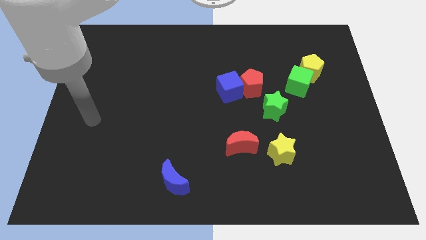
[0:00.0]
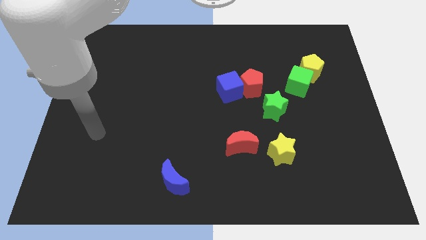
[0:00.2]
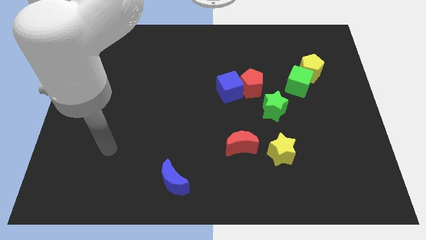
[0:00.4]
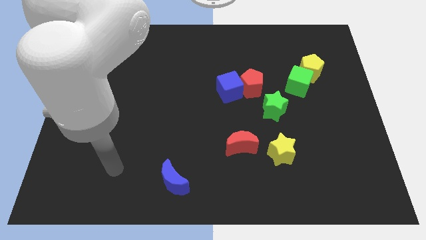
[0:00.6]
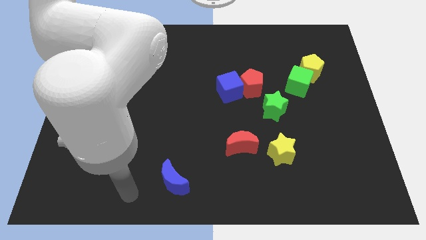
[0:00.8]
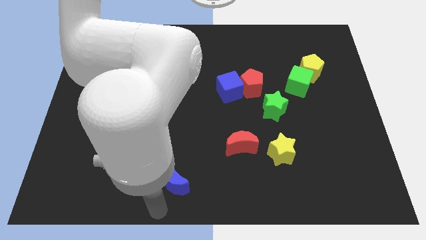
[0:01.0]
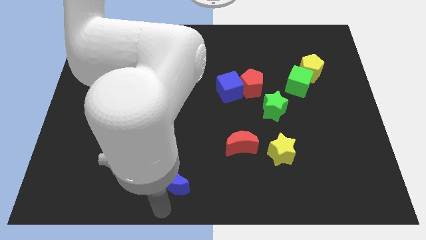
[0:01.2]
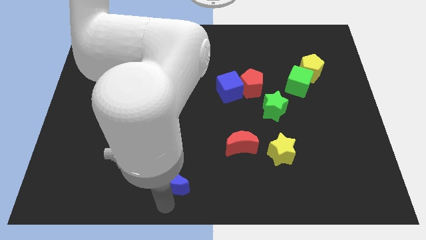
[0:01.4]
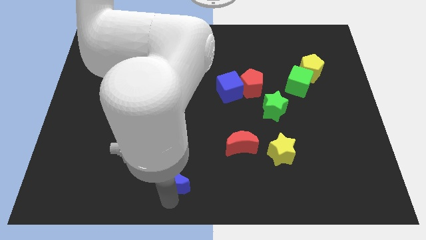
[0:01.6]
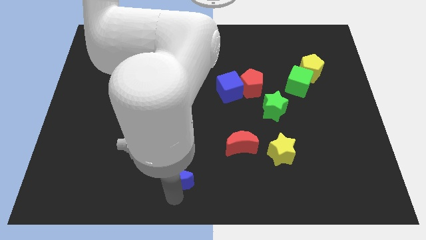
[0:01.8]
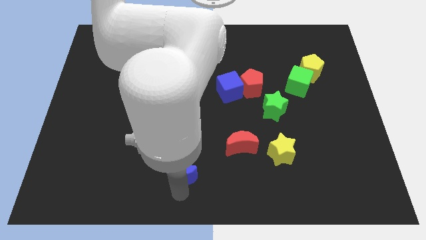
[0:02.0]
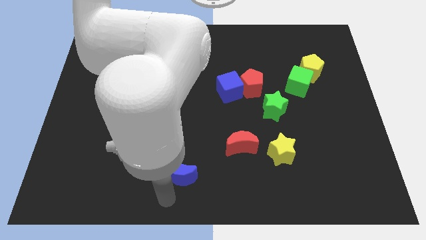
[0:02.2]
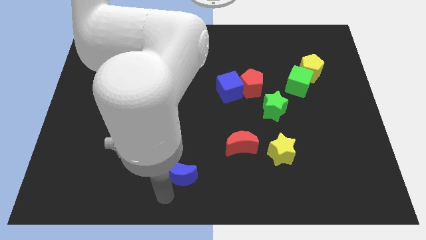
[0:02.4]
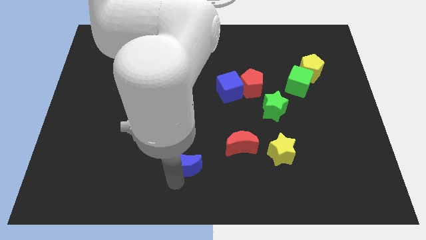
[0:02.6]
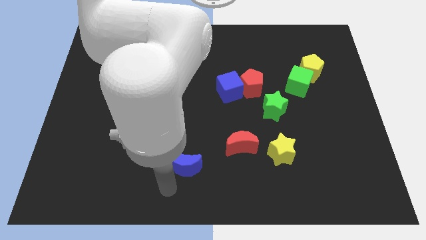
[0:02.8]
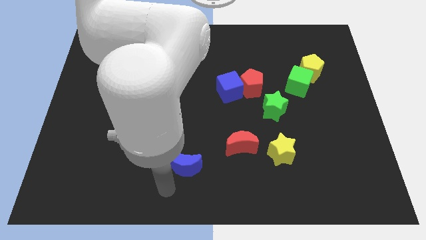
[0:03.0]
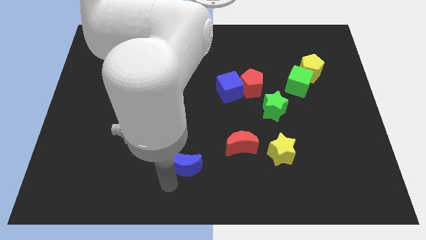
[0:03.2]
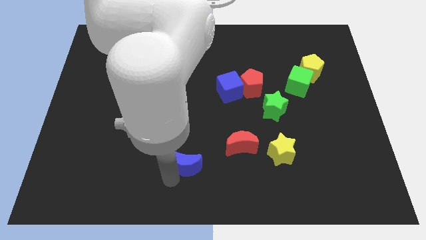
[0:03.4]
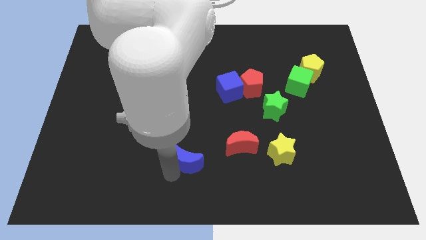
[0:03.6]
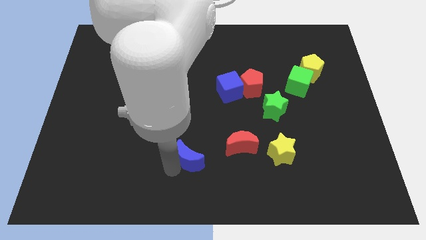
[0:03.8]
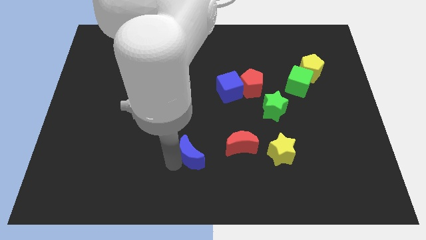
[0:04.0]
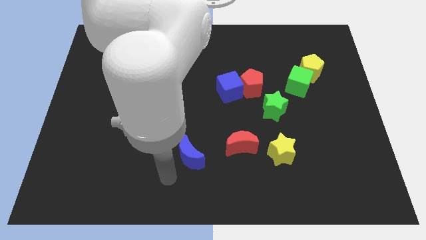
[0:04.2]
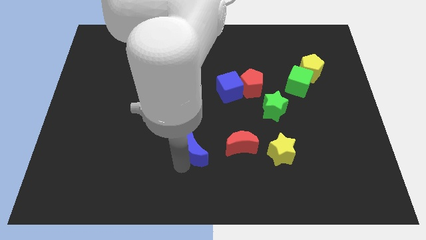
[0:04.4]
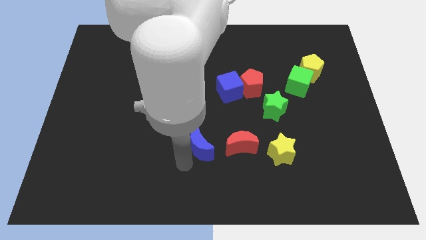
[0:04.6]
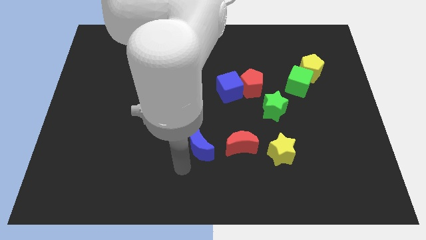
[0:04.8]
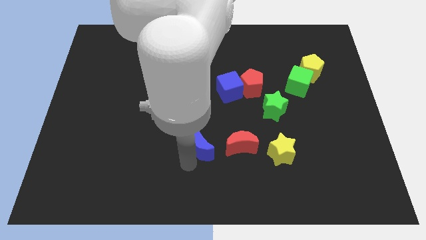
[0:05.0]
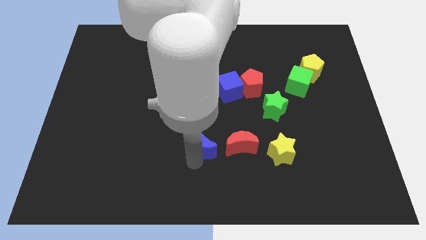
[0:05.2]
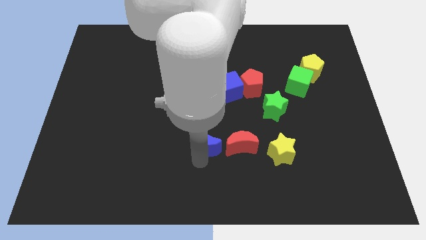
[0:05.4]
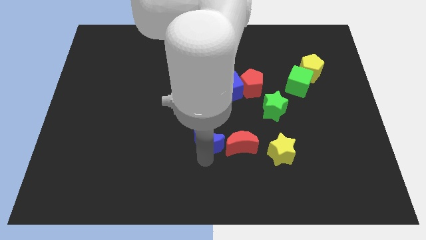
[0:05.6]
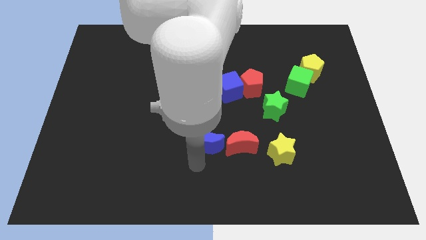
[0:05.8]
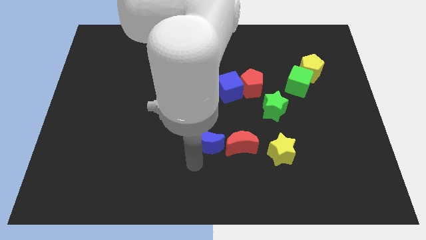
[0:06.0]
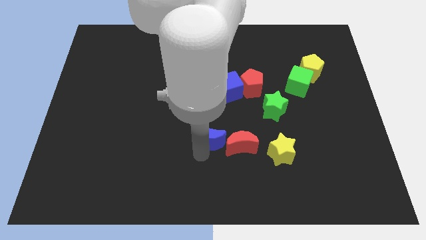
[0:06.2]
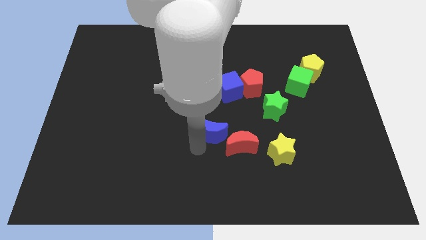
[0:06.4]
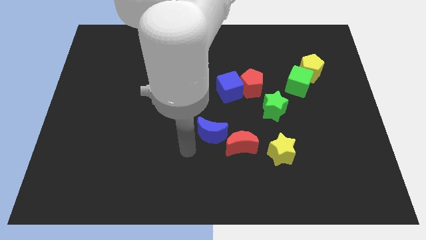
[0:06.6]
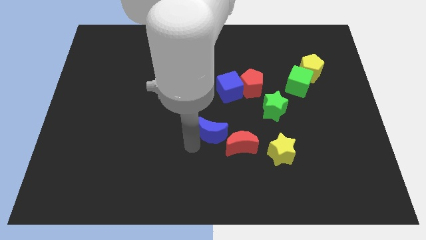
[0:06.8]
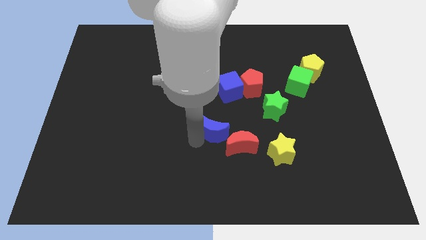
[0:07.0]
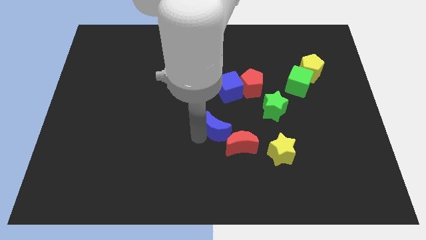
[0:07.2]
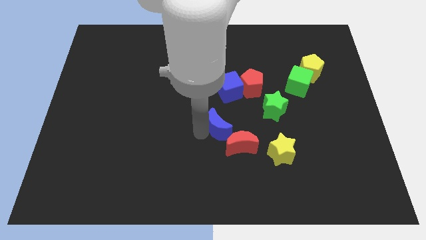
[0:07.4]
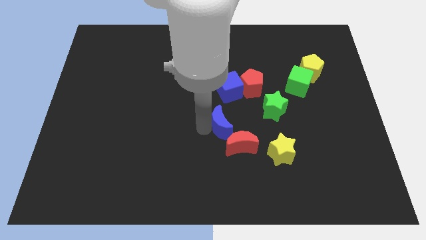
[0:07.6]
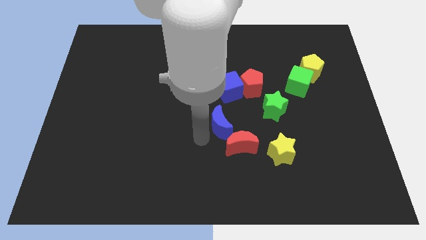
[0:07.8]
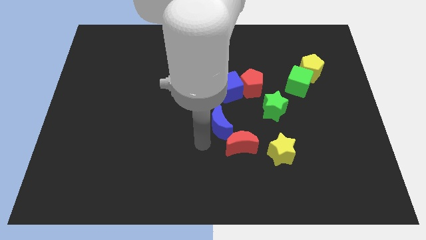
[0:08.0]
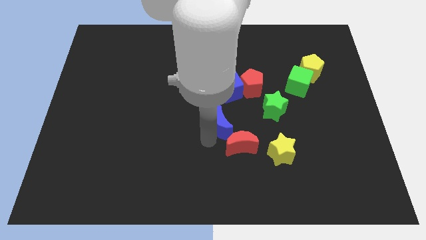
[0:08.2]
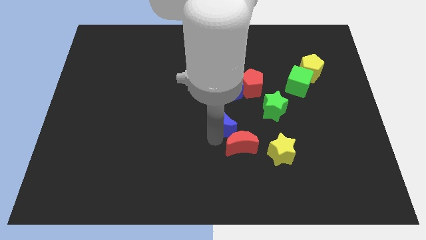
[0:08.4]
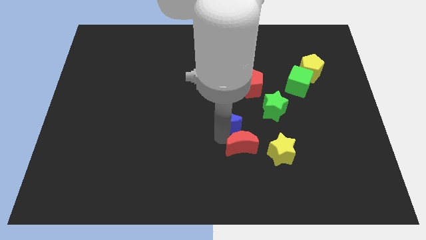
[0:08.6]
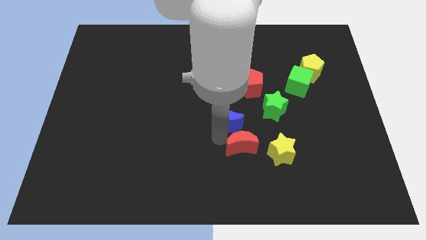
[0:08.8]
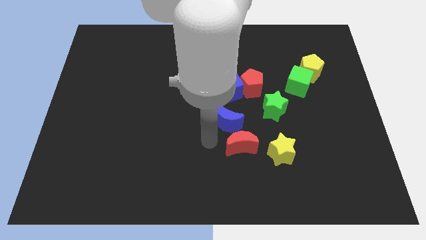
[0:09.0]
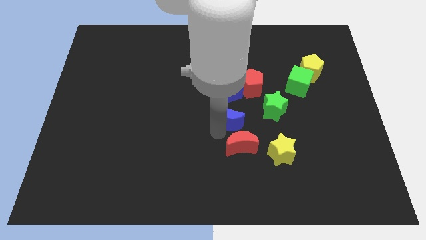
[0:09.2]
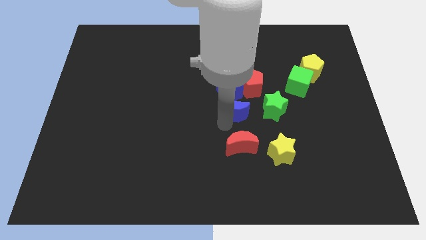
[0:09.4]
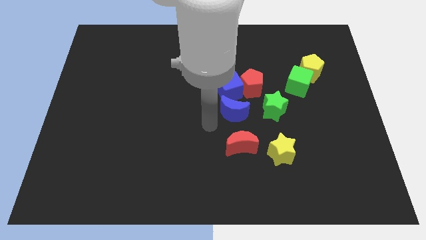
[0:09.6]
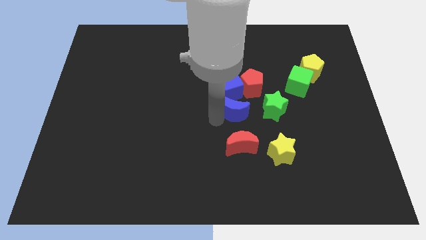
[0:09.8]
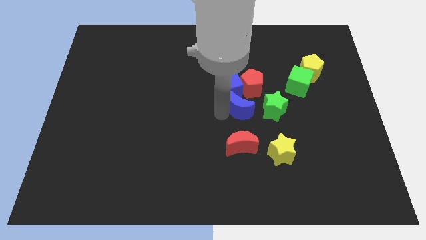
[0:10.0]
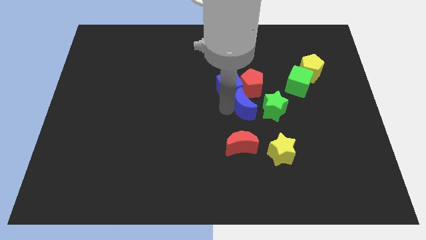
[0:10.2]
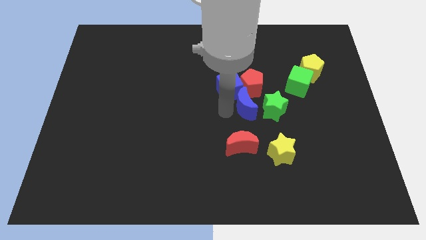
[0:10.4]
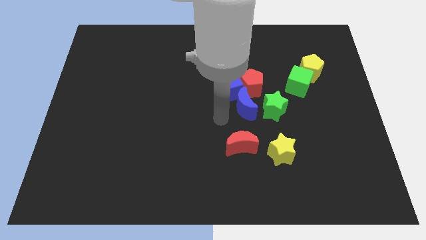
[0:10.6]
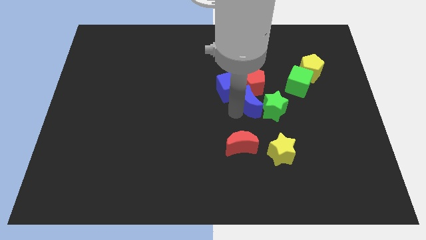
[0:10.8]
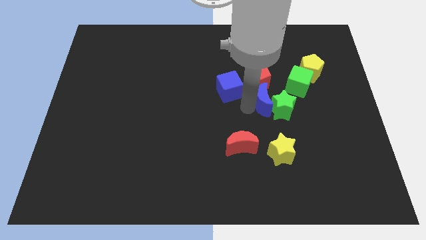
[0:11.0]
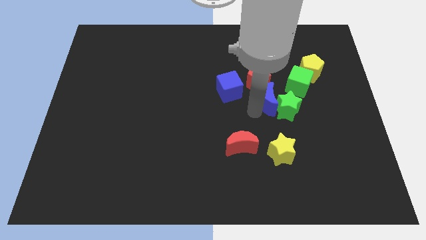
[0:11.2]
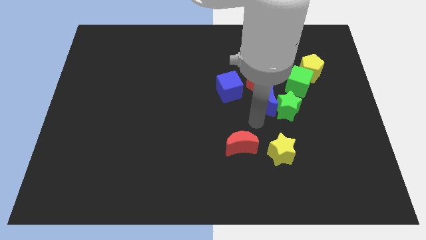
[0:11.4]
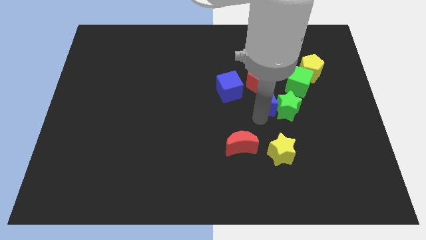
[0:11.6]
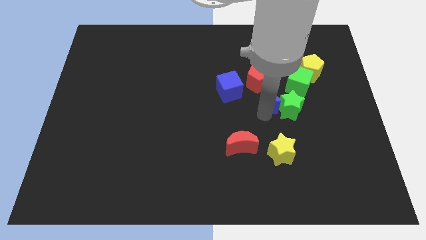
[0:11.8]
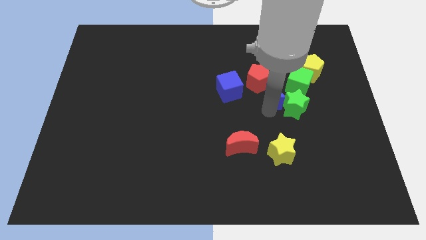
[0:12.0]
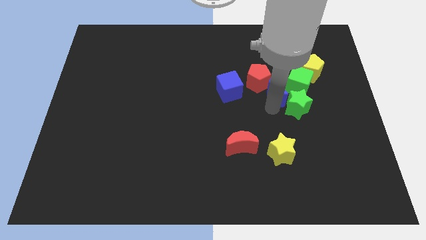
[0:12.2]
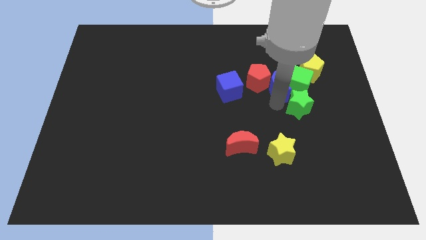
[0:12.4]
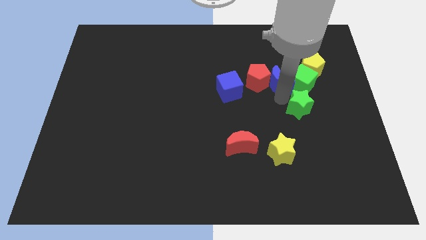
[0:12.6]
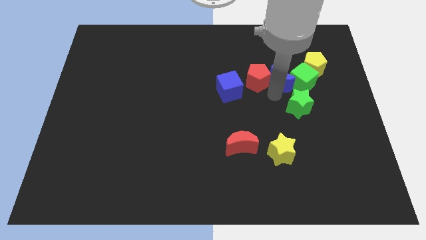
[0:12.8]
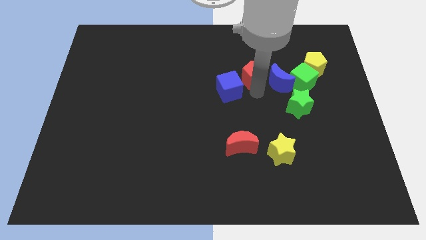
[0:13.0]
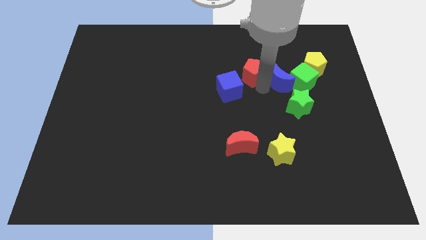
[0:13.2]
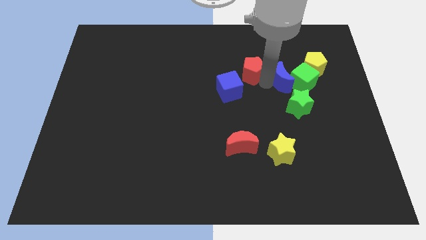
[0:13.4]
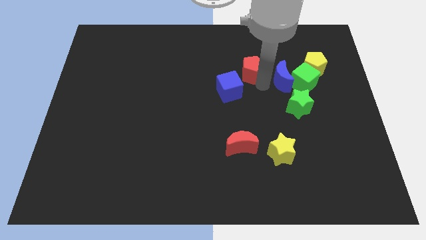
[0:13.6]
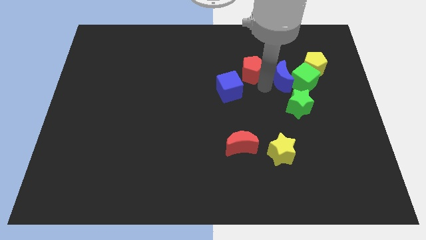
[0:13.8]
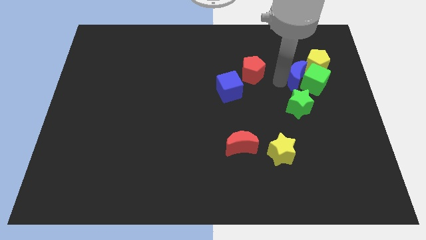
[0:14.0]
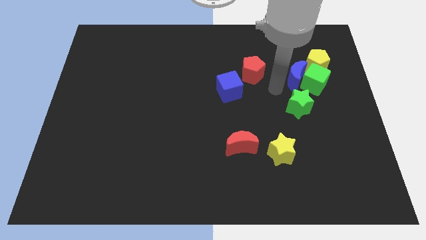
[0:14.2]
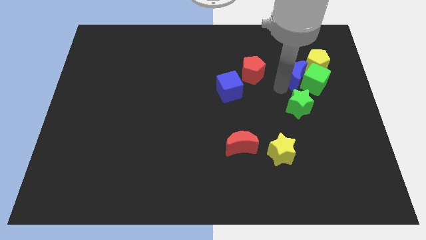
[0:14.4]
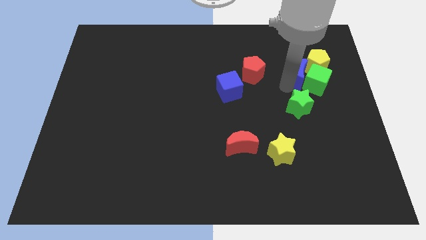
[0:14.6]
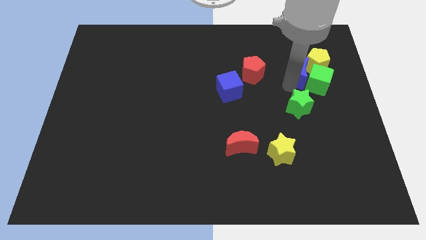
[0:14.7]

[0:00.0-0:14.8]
slide the blue moon towards the yellow pentagon
